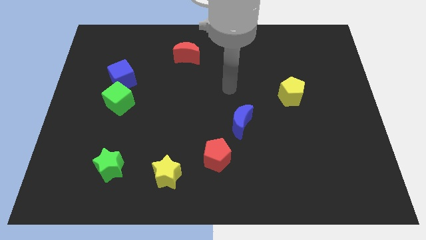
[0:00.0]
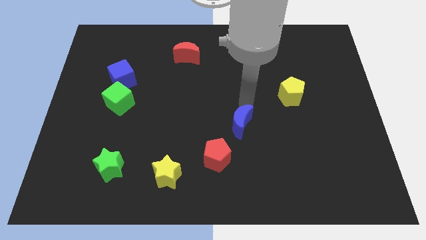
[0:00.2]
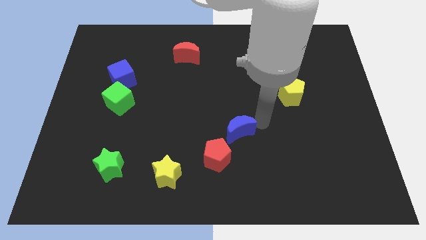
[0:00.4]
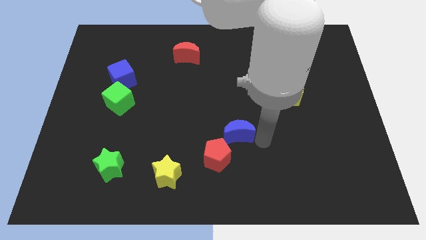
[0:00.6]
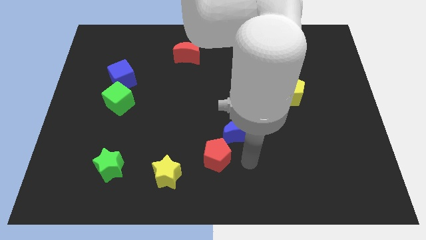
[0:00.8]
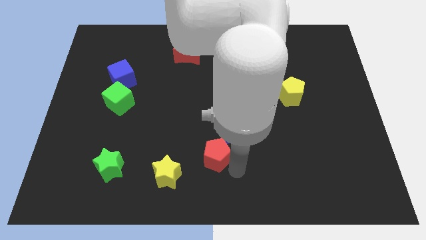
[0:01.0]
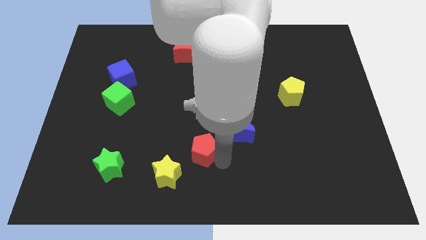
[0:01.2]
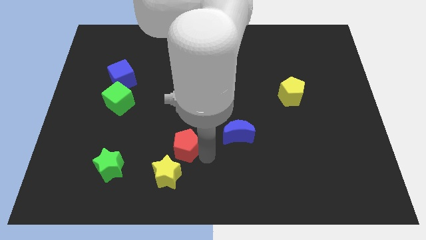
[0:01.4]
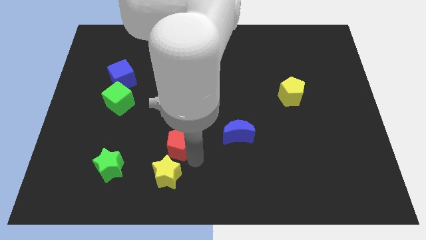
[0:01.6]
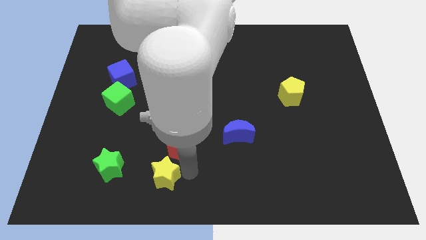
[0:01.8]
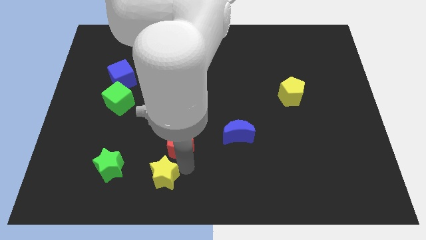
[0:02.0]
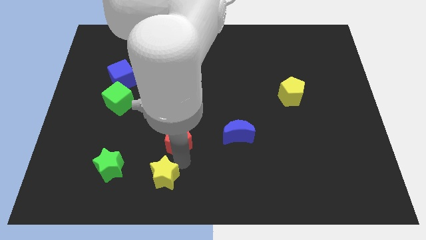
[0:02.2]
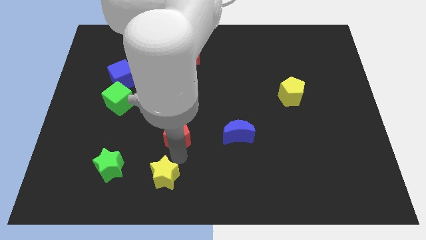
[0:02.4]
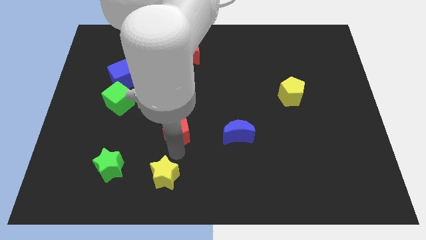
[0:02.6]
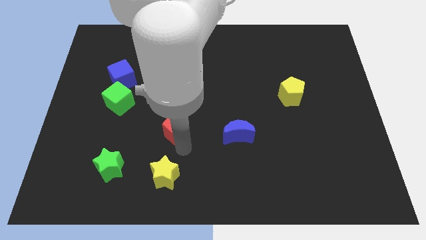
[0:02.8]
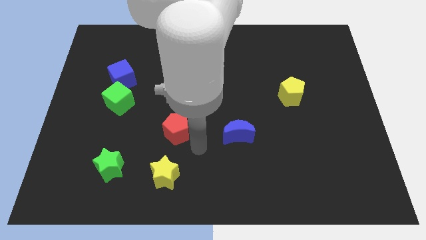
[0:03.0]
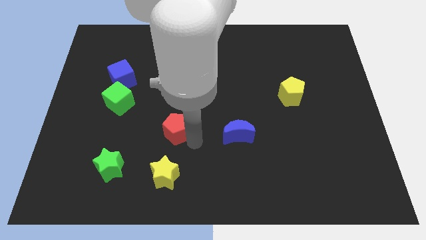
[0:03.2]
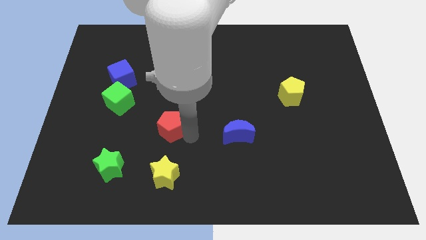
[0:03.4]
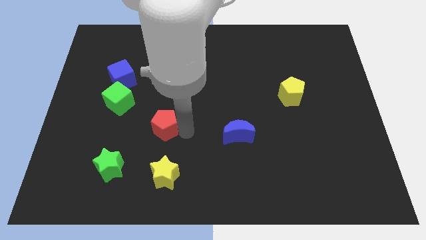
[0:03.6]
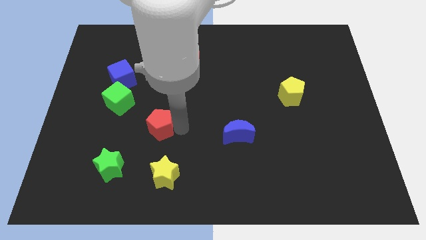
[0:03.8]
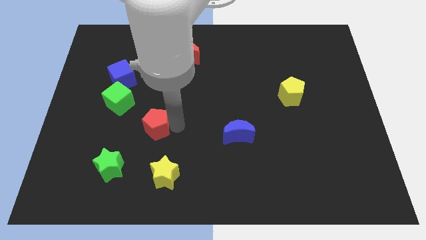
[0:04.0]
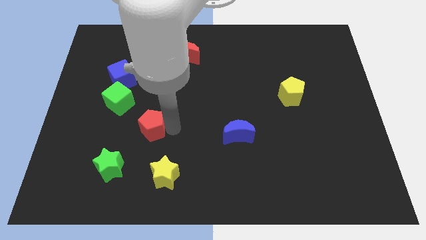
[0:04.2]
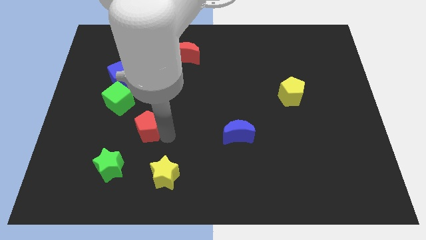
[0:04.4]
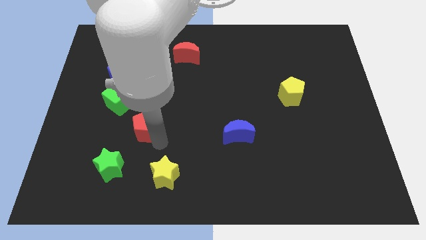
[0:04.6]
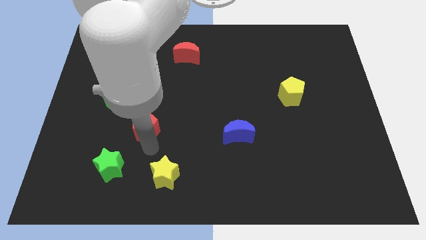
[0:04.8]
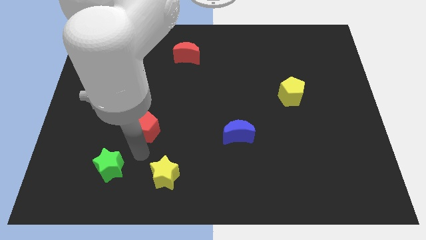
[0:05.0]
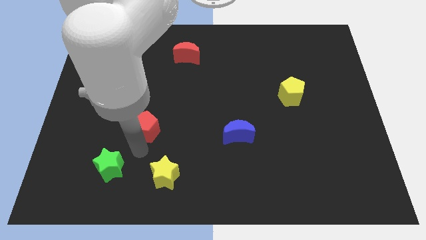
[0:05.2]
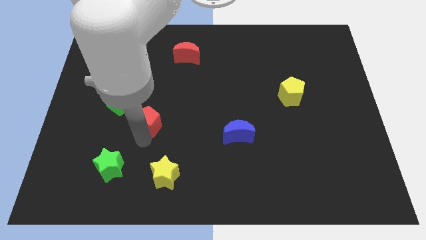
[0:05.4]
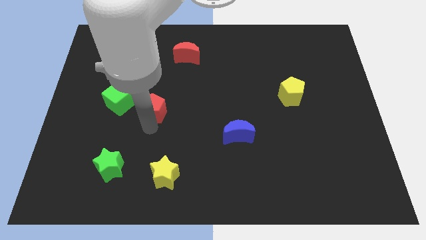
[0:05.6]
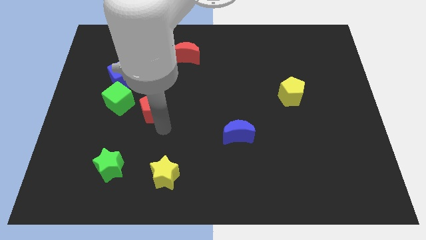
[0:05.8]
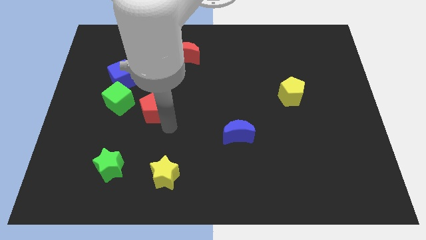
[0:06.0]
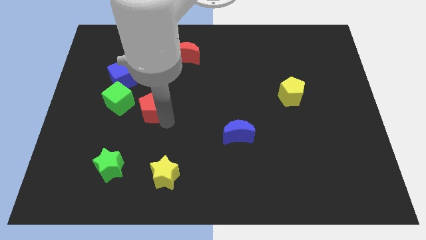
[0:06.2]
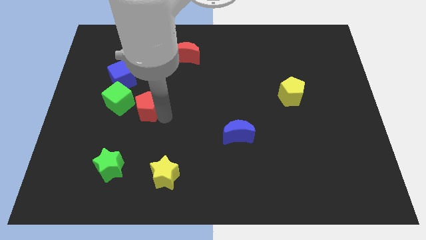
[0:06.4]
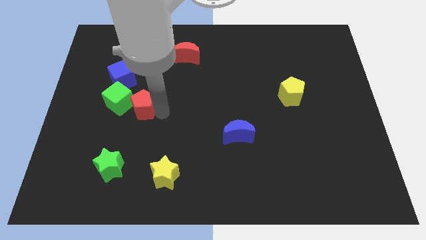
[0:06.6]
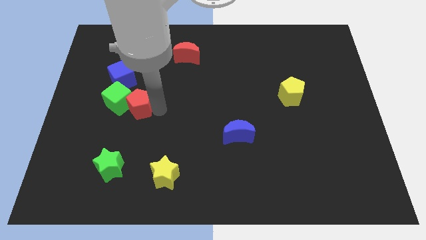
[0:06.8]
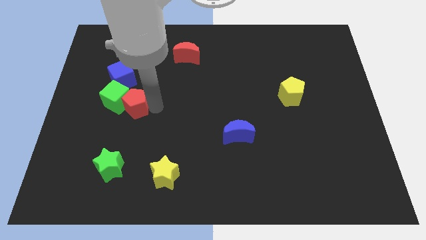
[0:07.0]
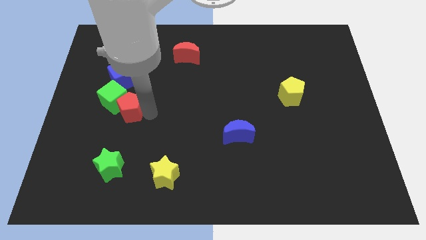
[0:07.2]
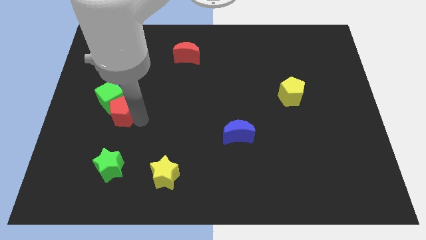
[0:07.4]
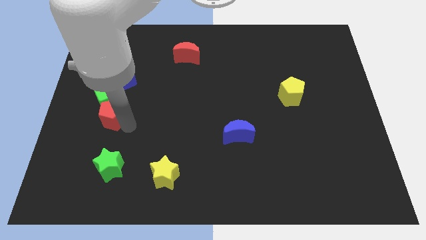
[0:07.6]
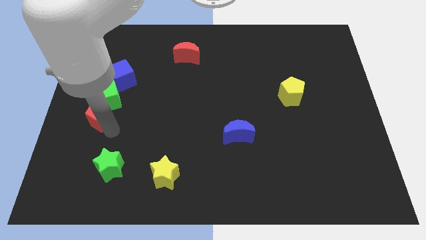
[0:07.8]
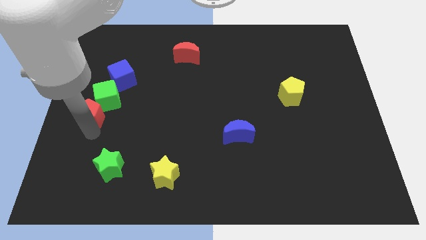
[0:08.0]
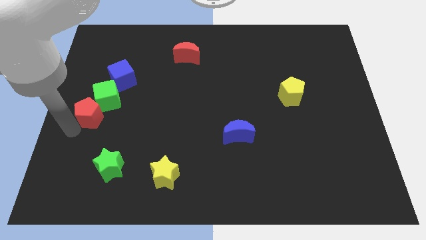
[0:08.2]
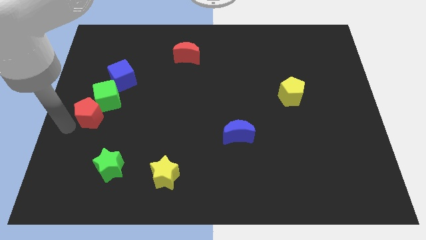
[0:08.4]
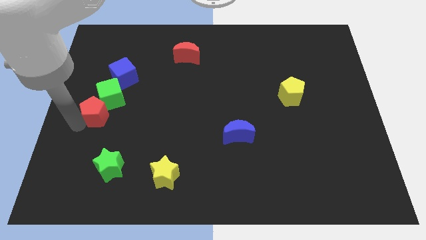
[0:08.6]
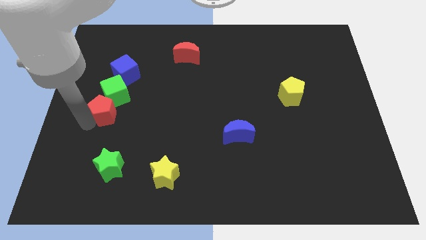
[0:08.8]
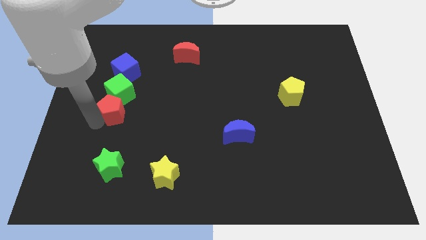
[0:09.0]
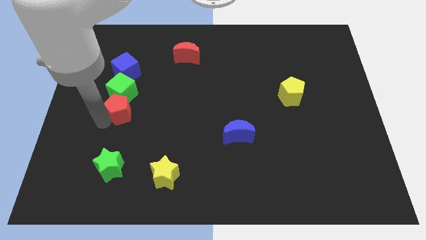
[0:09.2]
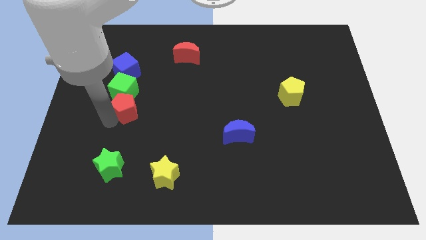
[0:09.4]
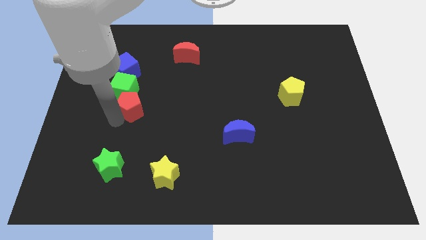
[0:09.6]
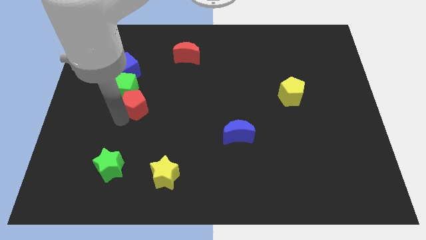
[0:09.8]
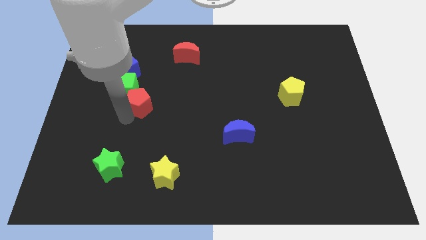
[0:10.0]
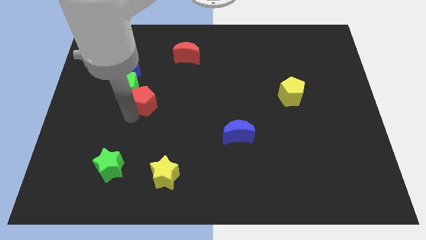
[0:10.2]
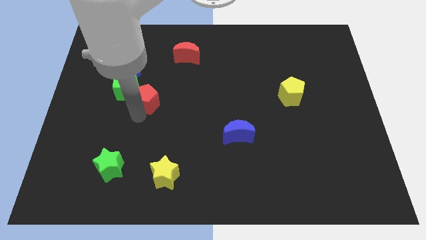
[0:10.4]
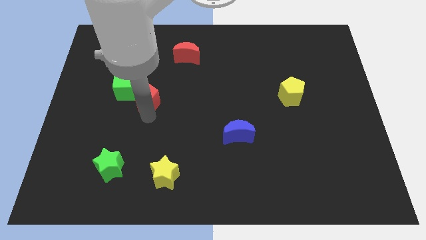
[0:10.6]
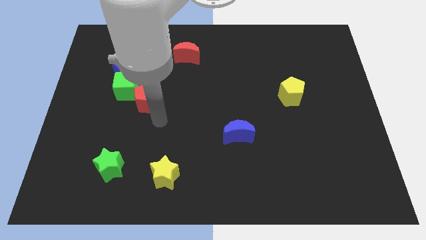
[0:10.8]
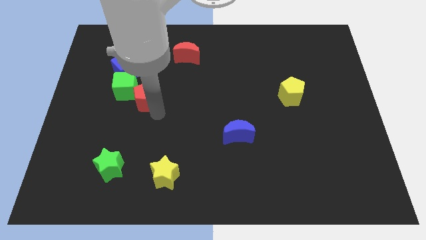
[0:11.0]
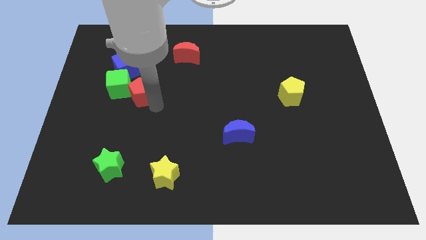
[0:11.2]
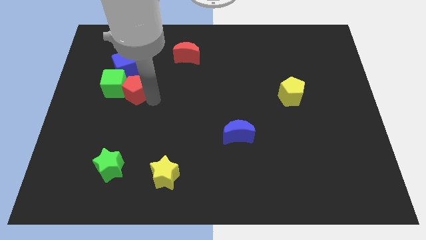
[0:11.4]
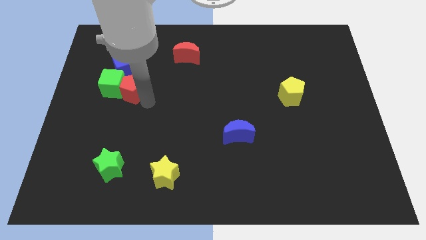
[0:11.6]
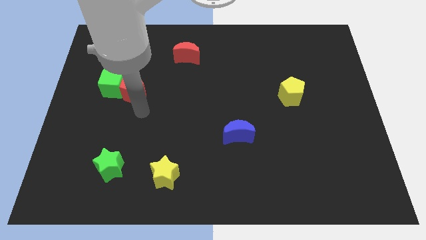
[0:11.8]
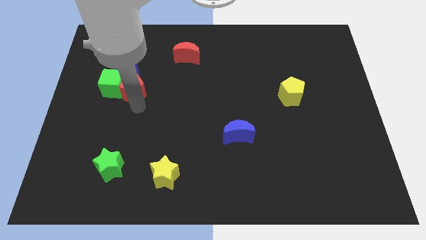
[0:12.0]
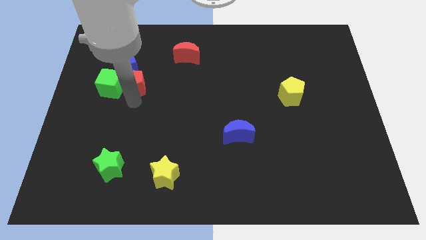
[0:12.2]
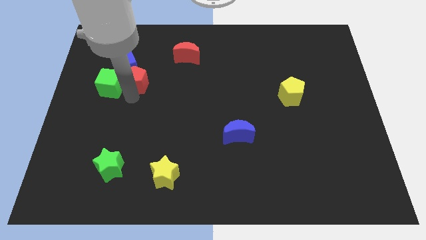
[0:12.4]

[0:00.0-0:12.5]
put the red pentagon close to the blue cube

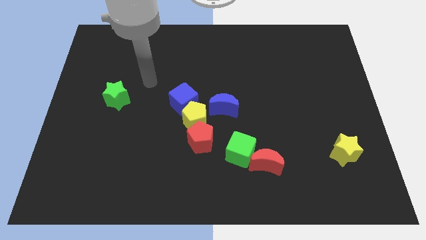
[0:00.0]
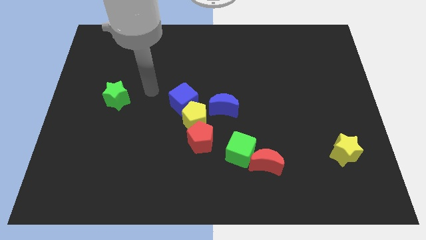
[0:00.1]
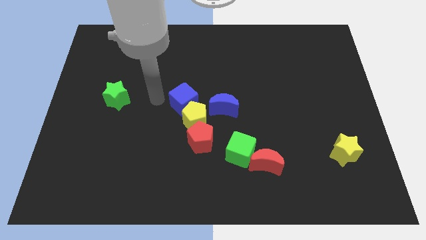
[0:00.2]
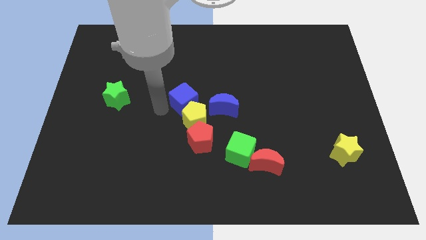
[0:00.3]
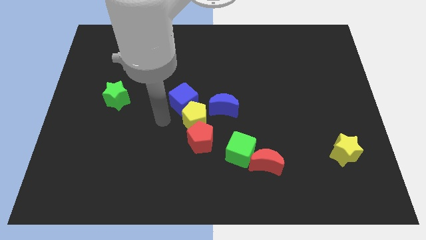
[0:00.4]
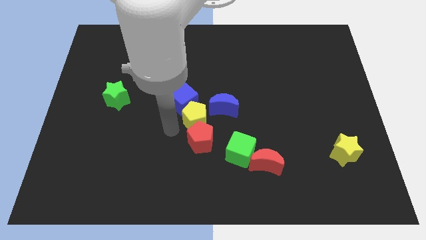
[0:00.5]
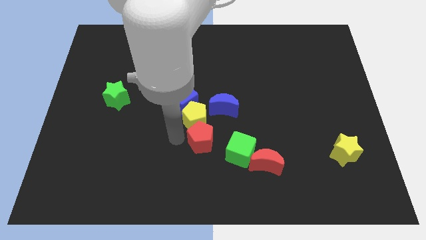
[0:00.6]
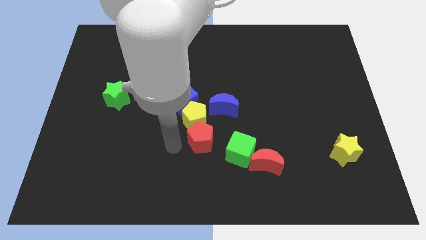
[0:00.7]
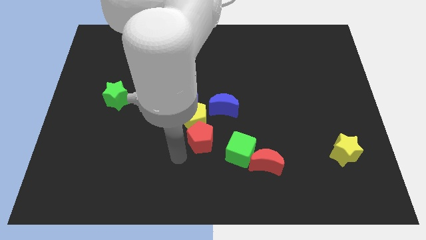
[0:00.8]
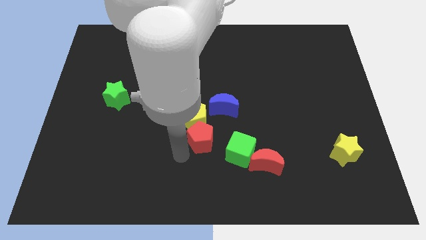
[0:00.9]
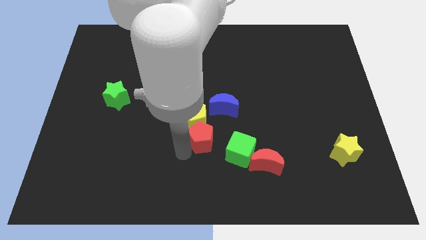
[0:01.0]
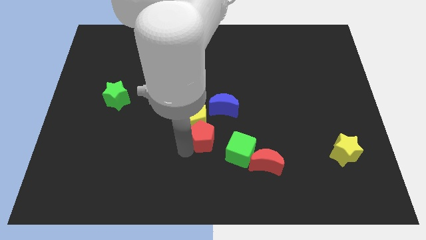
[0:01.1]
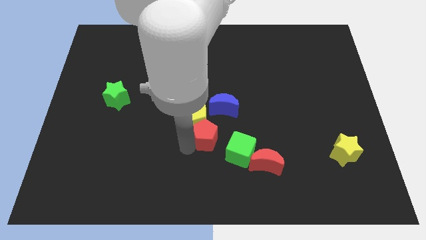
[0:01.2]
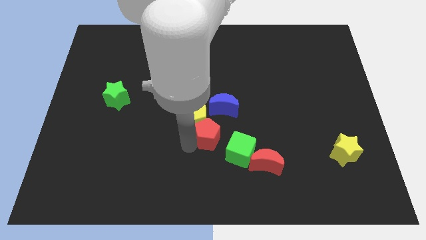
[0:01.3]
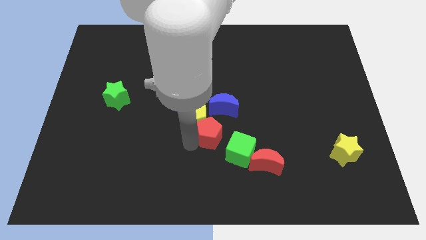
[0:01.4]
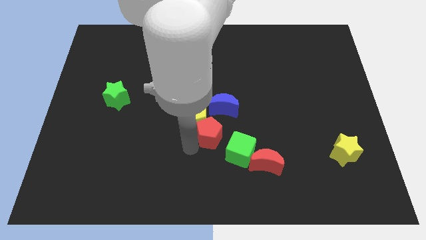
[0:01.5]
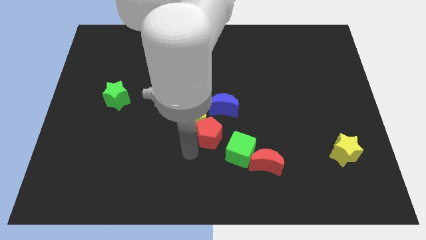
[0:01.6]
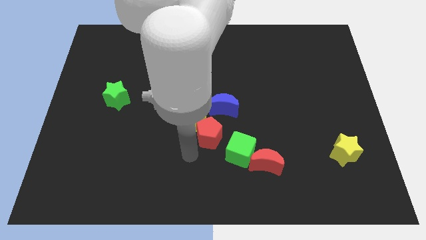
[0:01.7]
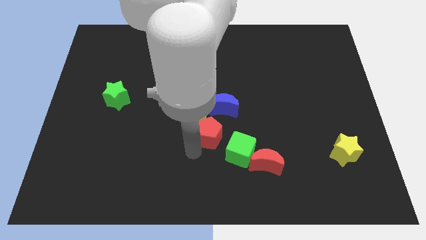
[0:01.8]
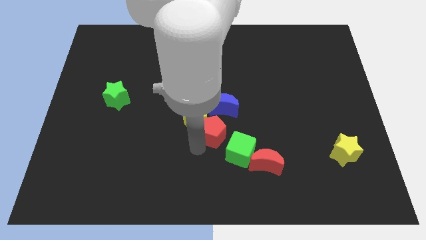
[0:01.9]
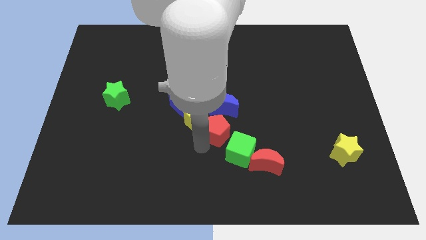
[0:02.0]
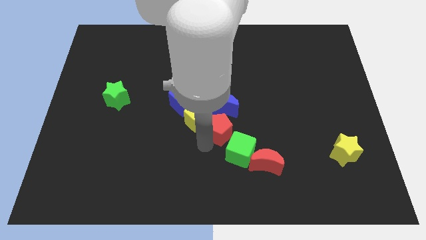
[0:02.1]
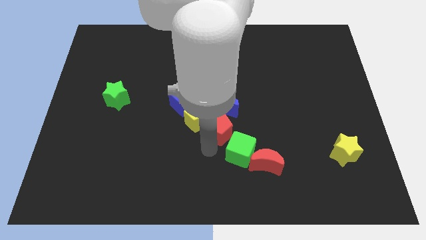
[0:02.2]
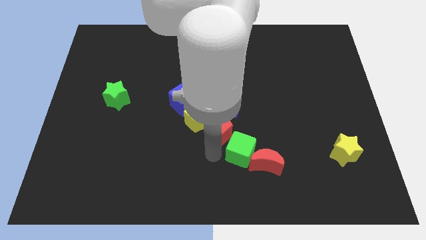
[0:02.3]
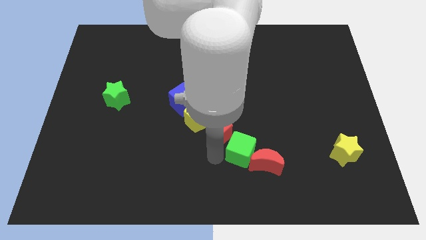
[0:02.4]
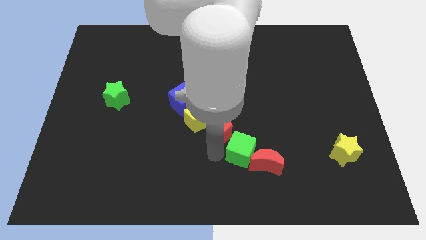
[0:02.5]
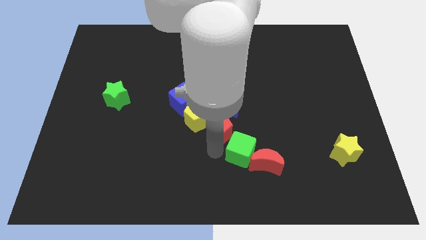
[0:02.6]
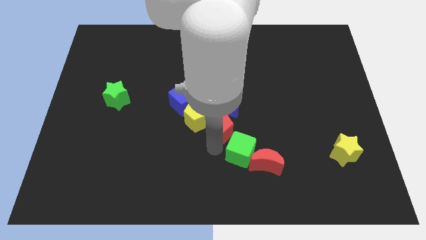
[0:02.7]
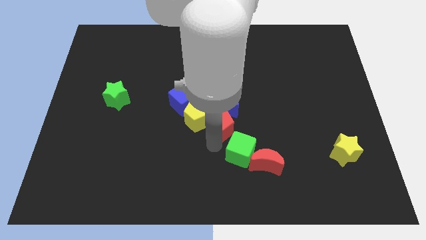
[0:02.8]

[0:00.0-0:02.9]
slide the red pentagon towards the blue moon
